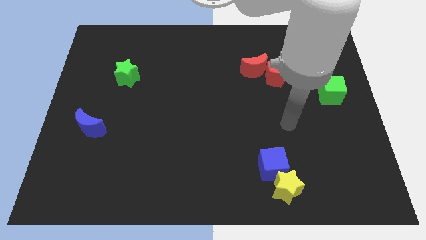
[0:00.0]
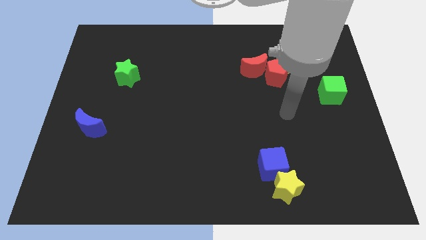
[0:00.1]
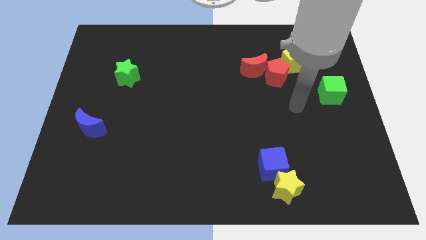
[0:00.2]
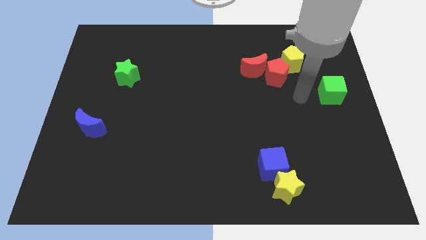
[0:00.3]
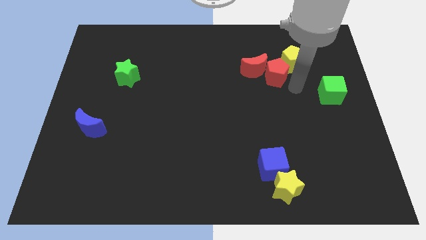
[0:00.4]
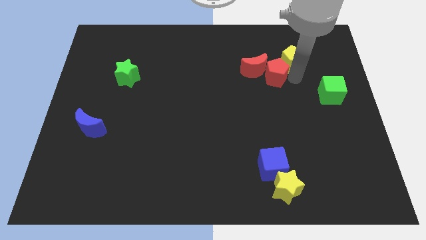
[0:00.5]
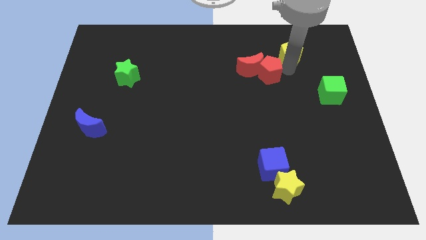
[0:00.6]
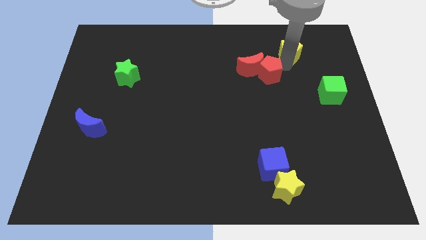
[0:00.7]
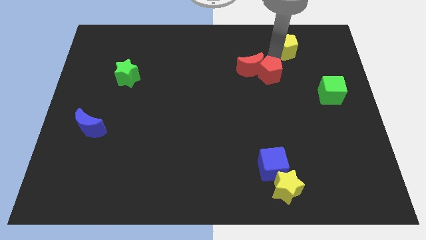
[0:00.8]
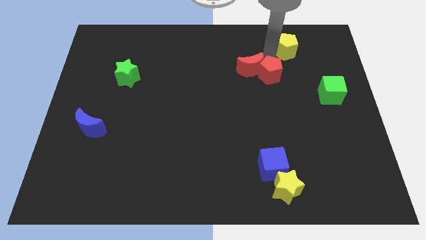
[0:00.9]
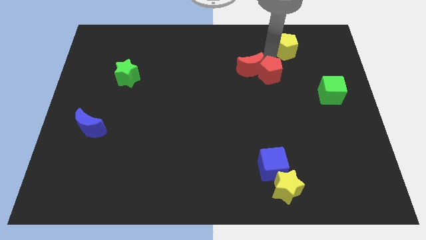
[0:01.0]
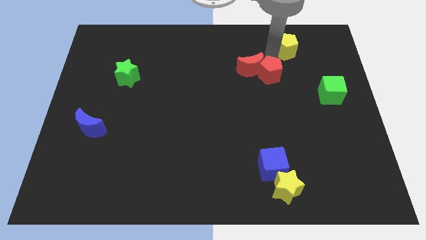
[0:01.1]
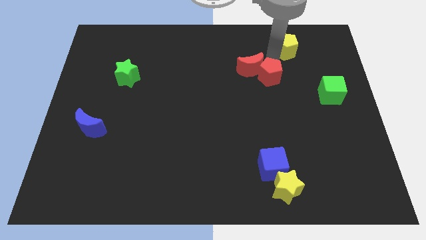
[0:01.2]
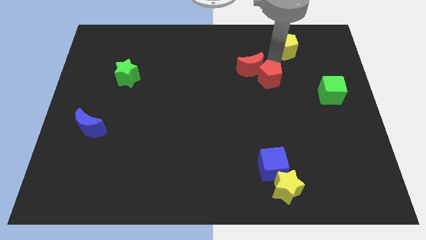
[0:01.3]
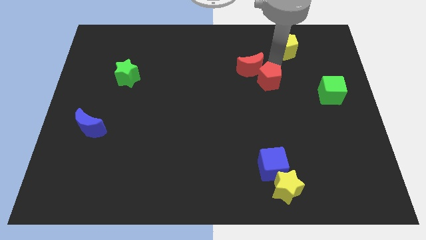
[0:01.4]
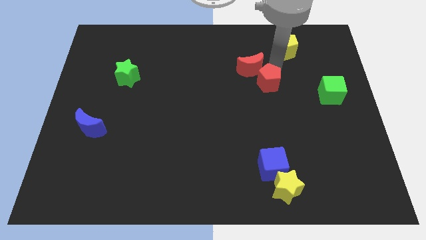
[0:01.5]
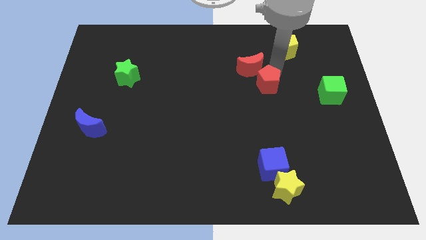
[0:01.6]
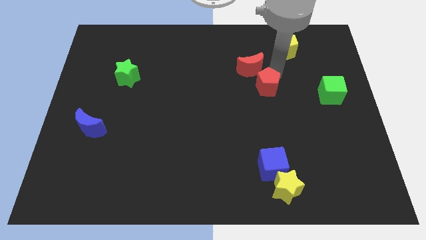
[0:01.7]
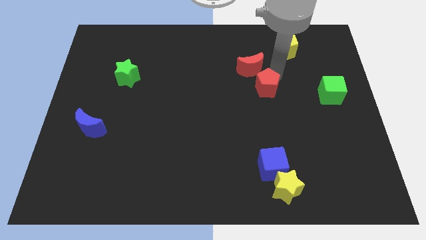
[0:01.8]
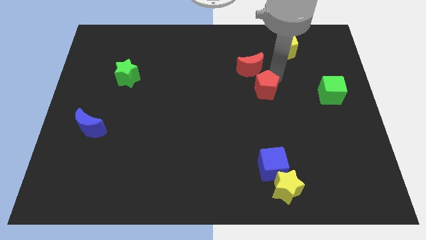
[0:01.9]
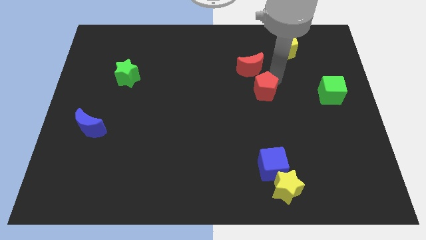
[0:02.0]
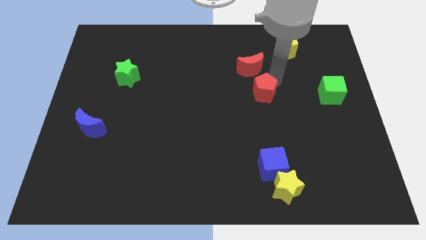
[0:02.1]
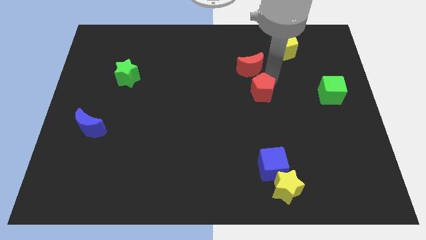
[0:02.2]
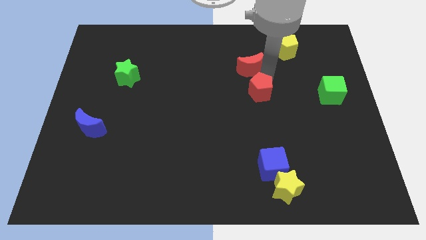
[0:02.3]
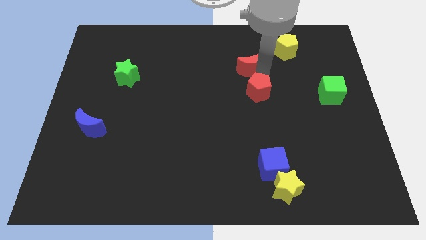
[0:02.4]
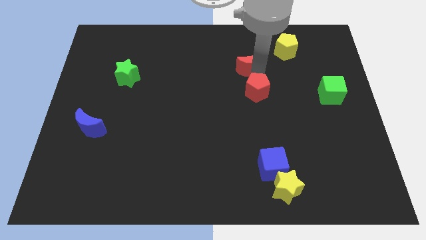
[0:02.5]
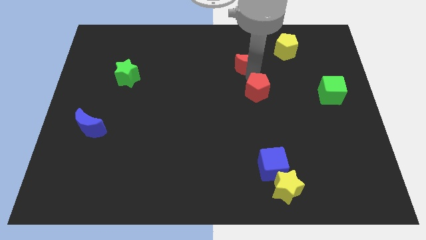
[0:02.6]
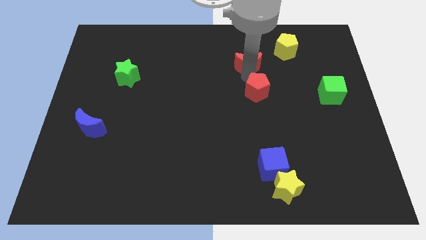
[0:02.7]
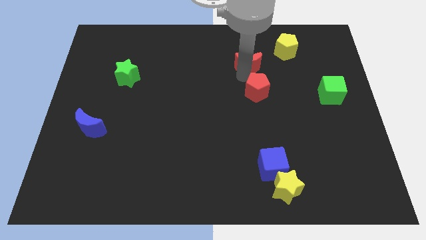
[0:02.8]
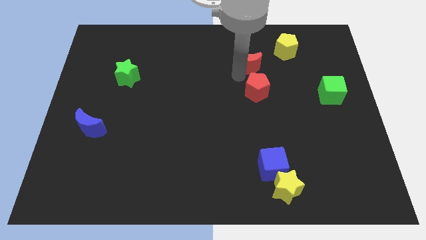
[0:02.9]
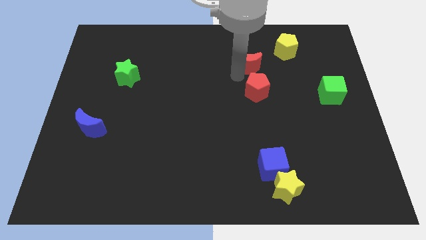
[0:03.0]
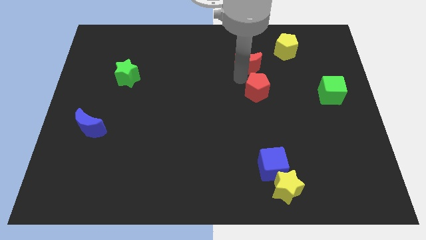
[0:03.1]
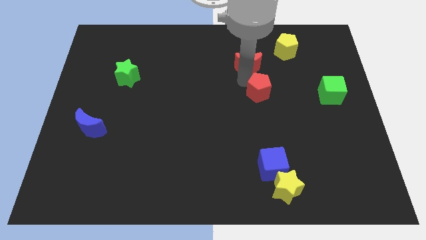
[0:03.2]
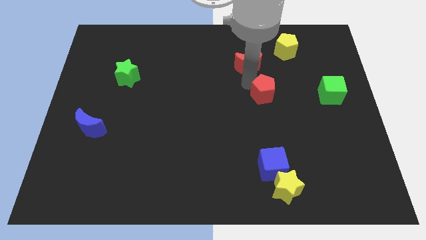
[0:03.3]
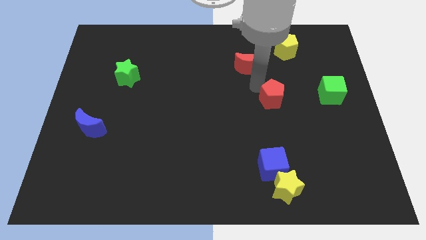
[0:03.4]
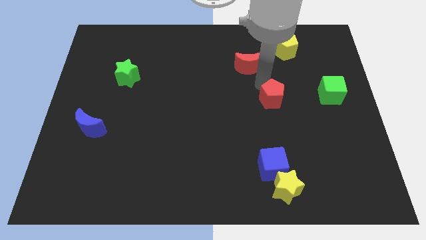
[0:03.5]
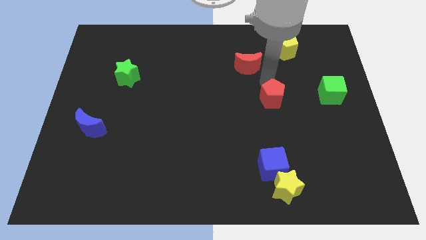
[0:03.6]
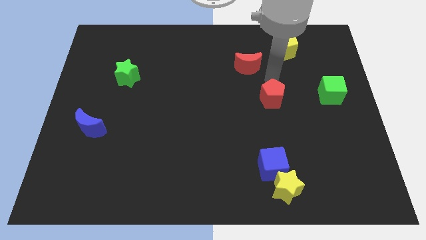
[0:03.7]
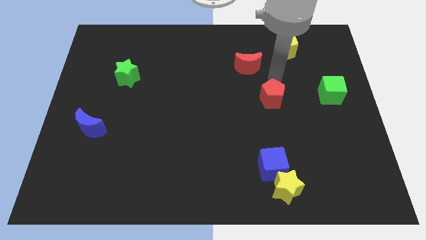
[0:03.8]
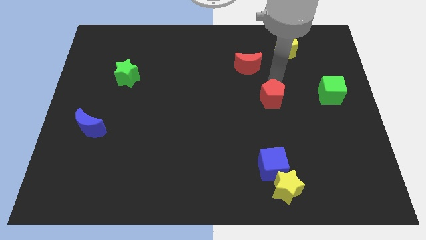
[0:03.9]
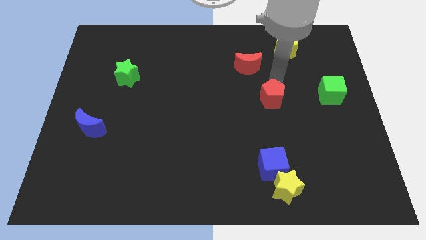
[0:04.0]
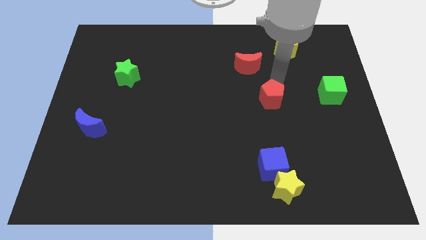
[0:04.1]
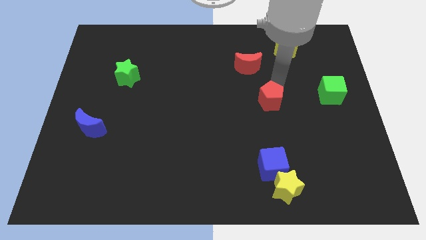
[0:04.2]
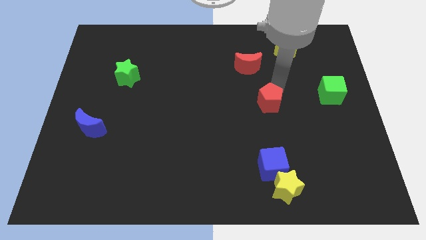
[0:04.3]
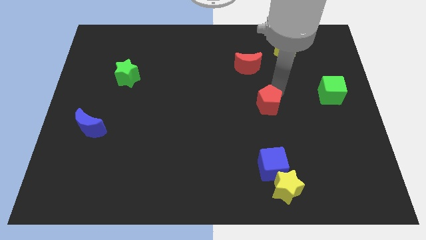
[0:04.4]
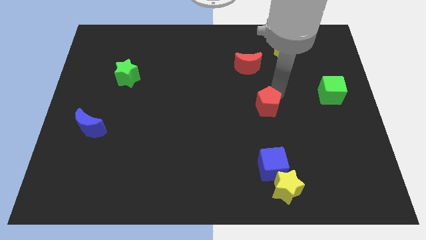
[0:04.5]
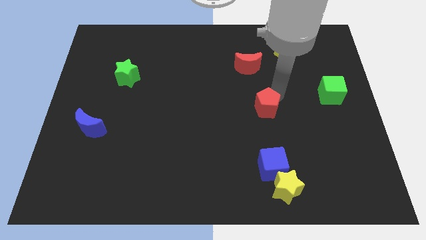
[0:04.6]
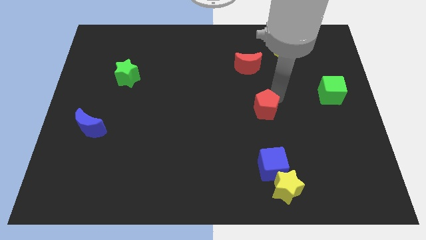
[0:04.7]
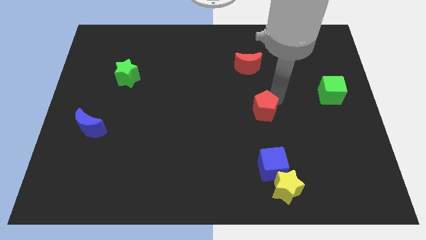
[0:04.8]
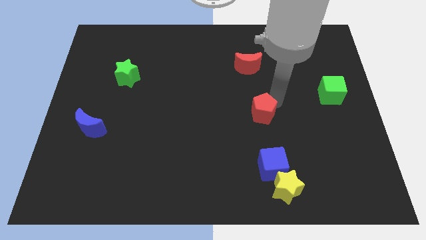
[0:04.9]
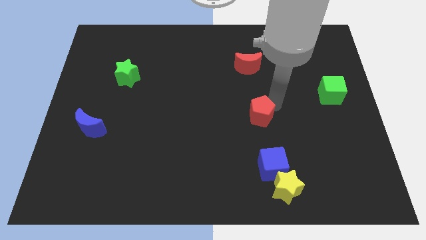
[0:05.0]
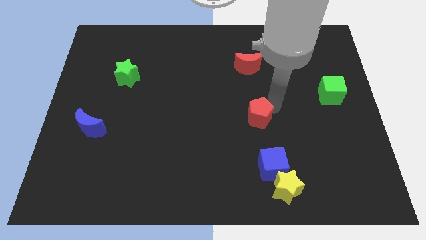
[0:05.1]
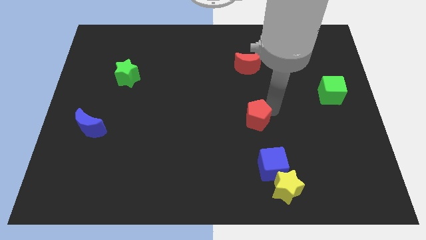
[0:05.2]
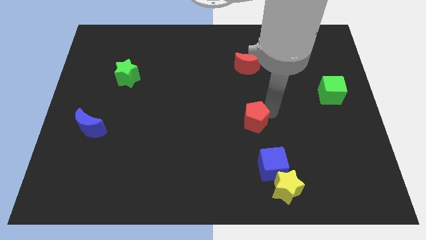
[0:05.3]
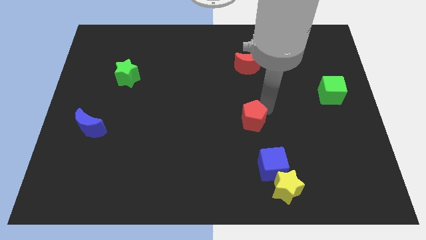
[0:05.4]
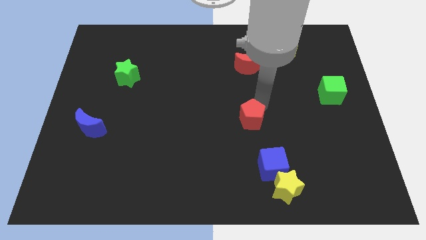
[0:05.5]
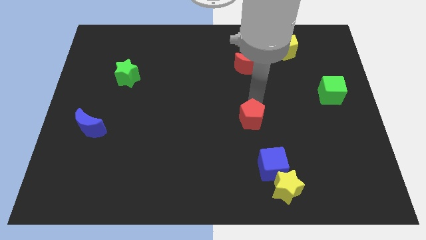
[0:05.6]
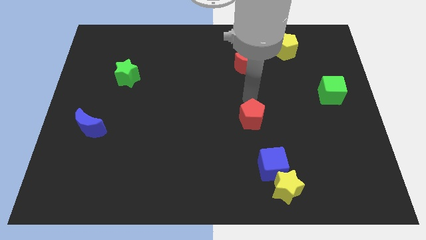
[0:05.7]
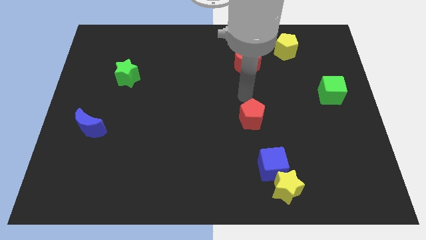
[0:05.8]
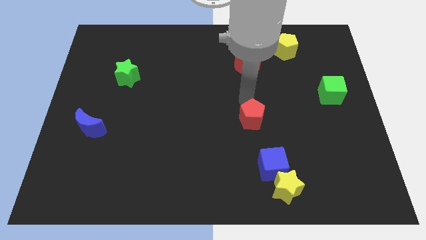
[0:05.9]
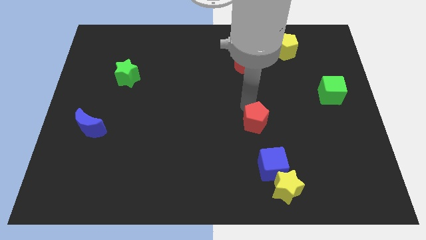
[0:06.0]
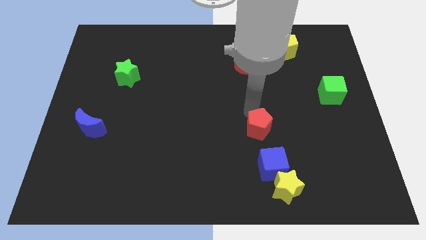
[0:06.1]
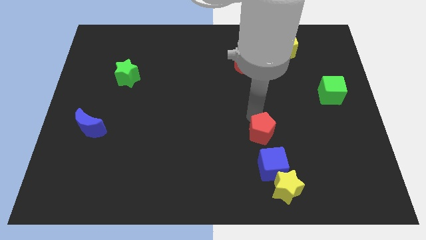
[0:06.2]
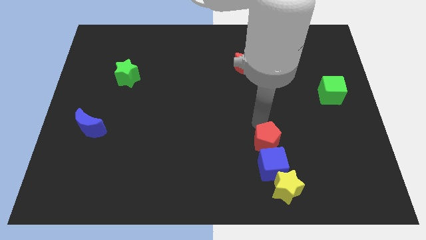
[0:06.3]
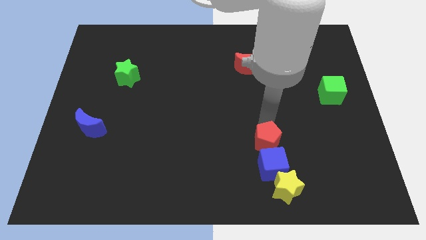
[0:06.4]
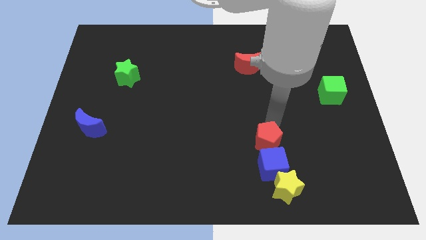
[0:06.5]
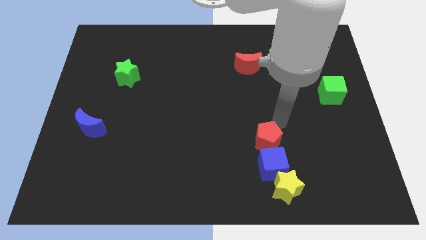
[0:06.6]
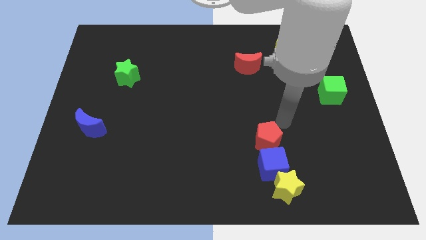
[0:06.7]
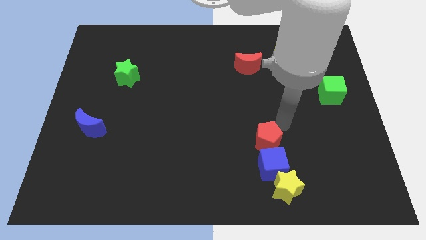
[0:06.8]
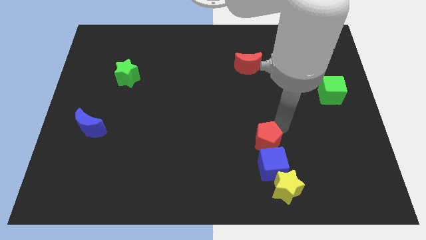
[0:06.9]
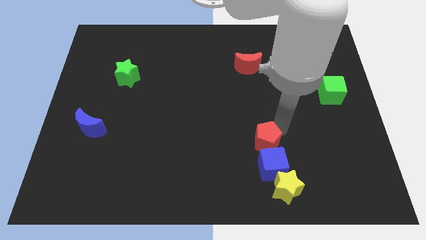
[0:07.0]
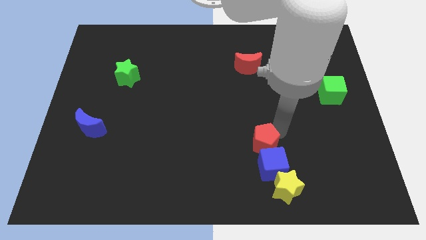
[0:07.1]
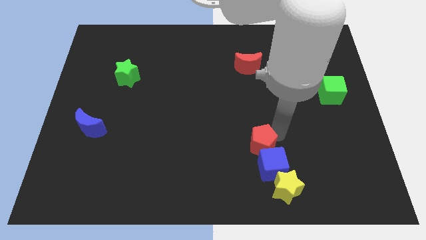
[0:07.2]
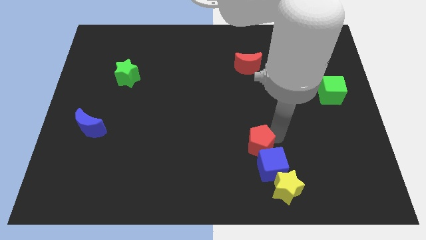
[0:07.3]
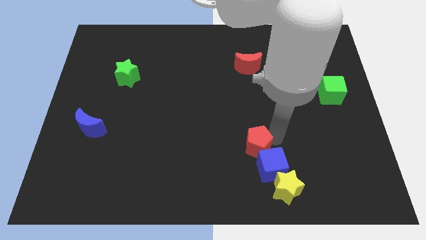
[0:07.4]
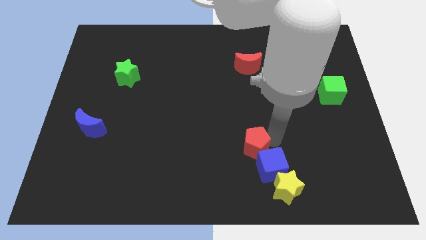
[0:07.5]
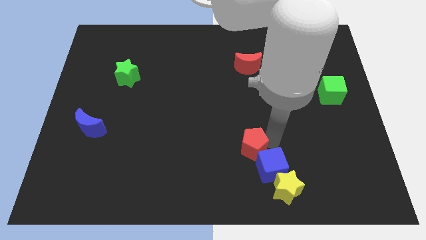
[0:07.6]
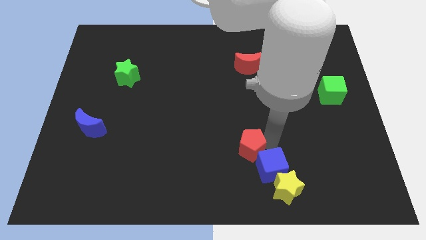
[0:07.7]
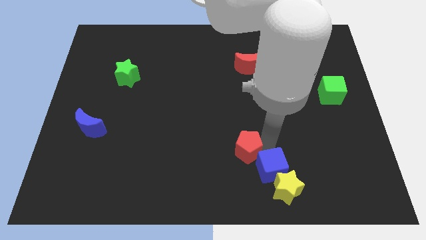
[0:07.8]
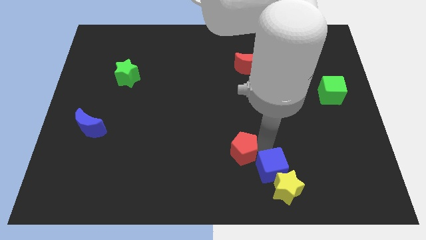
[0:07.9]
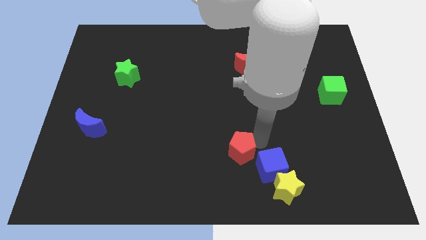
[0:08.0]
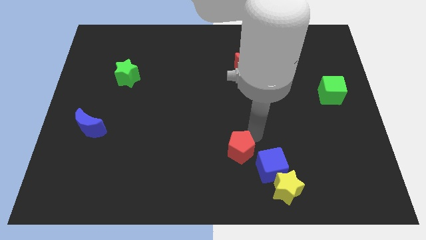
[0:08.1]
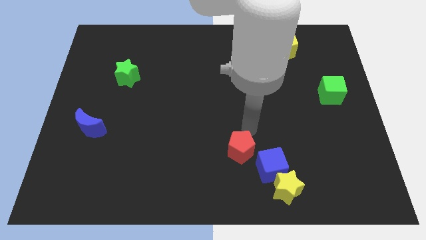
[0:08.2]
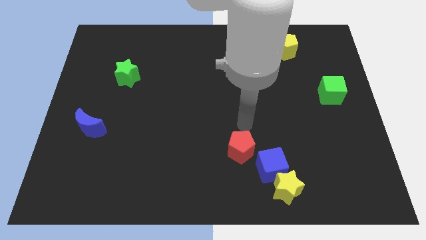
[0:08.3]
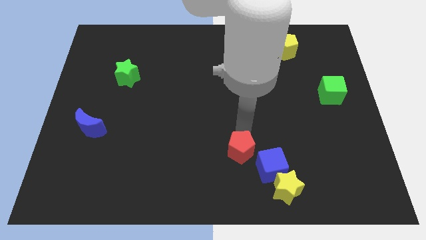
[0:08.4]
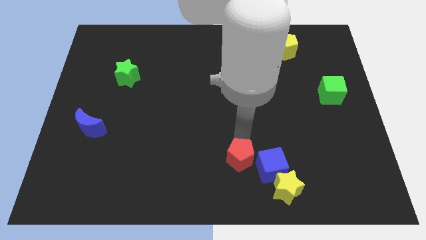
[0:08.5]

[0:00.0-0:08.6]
slide the red pentagon to the bottom side
